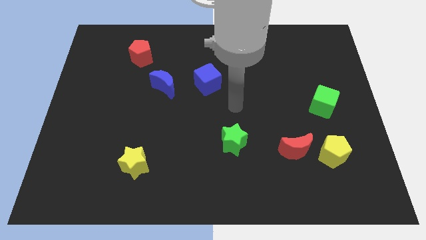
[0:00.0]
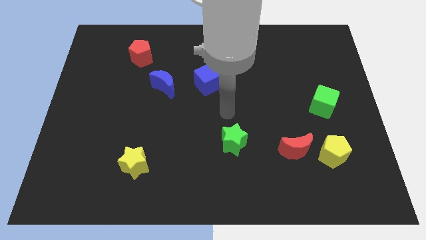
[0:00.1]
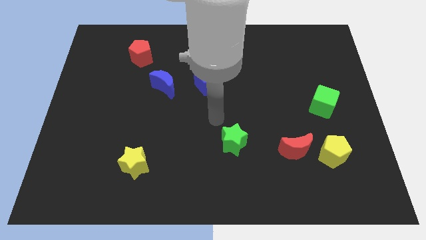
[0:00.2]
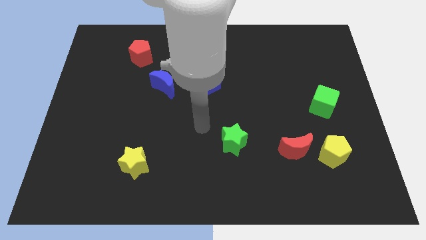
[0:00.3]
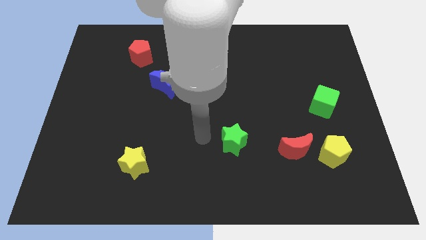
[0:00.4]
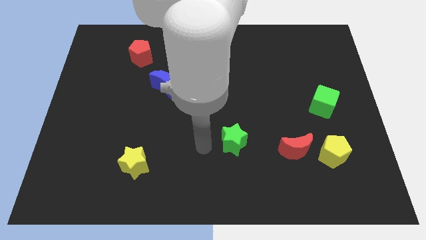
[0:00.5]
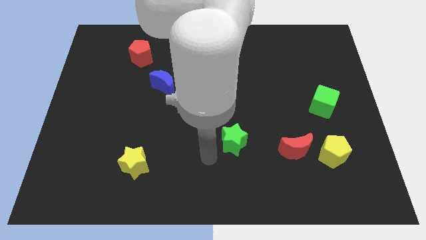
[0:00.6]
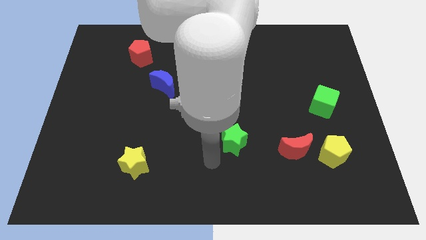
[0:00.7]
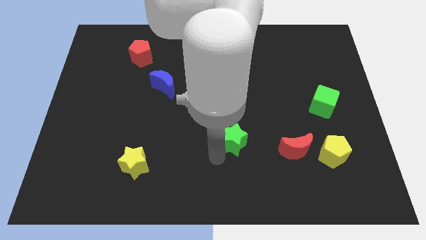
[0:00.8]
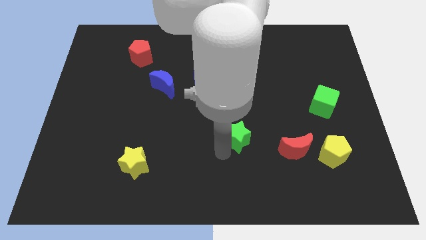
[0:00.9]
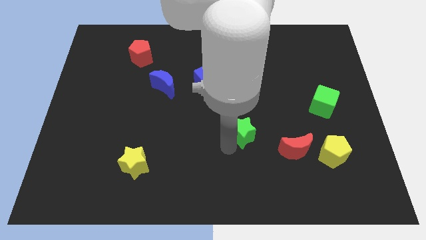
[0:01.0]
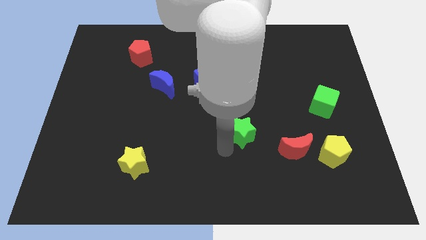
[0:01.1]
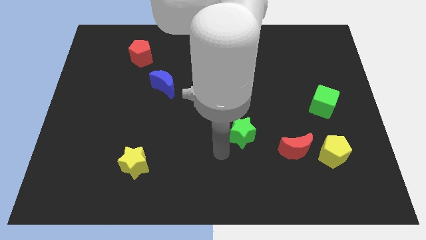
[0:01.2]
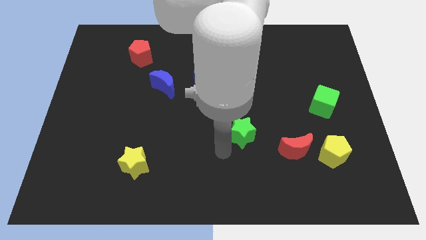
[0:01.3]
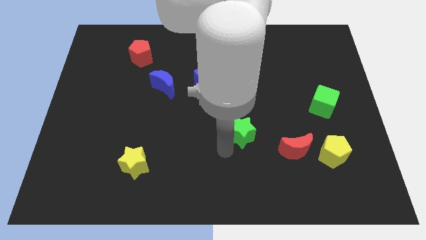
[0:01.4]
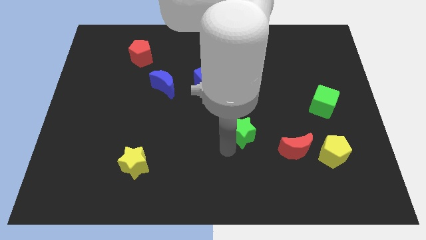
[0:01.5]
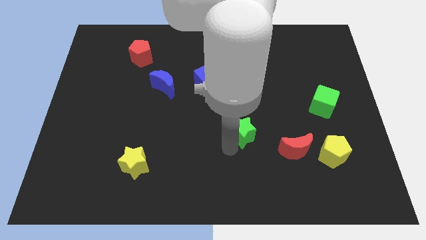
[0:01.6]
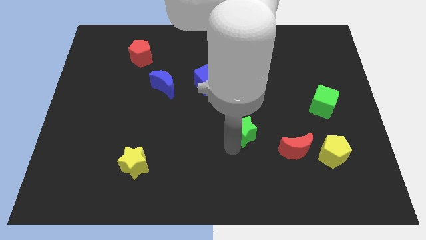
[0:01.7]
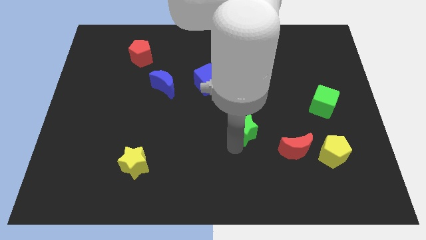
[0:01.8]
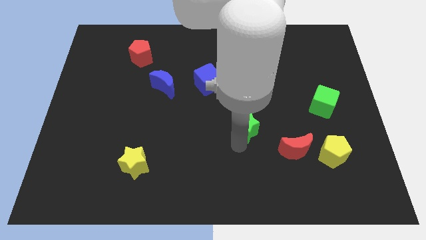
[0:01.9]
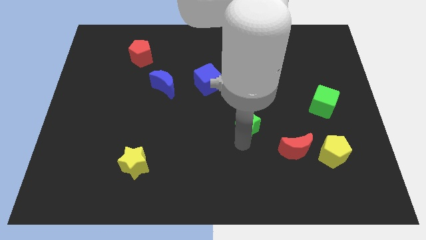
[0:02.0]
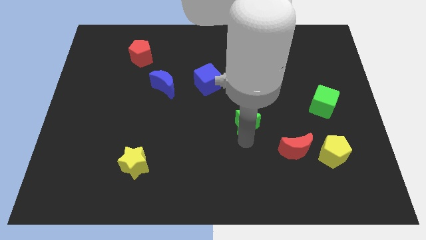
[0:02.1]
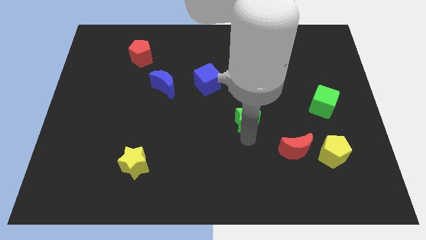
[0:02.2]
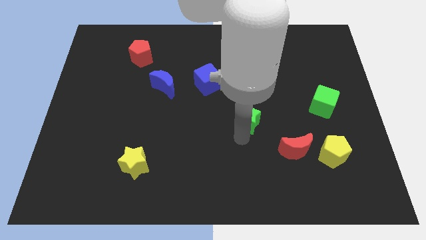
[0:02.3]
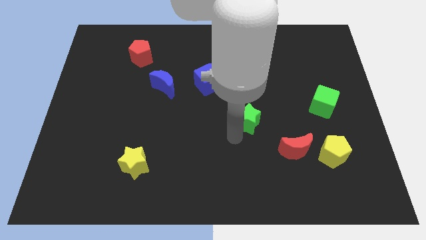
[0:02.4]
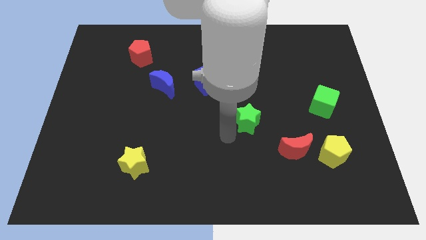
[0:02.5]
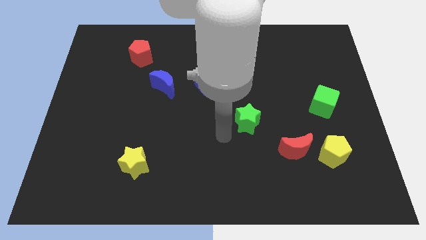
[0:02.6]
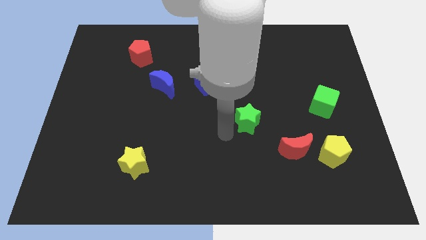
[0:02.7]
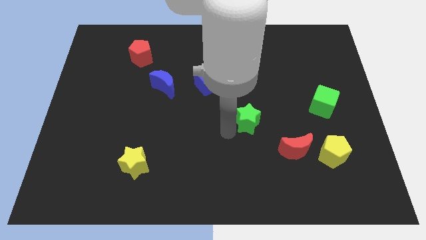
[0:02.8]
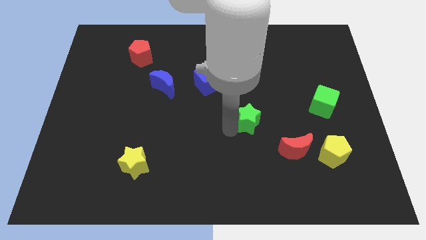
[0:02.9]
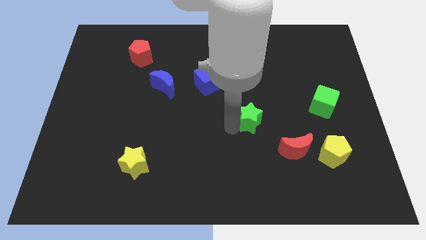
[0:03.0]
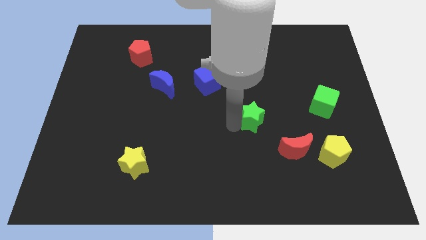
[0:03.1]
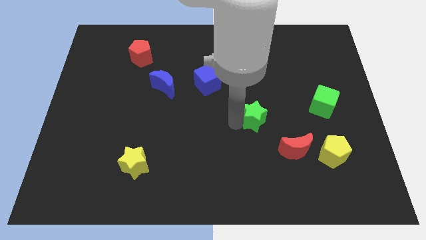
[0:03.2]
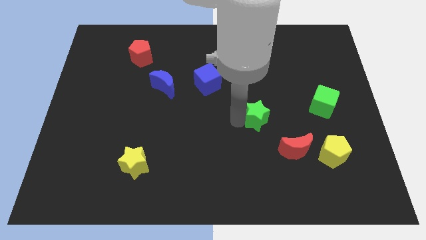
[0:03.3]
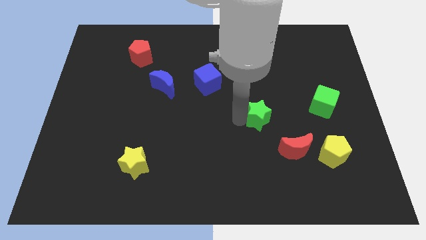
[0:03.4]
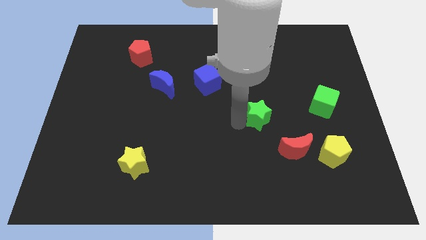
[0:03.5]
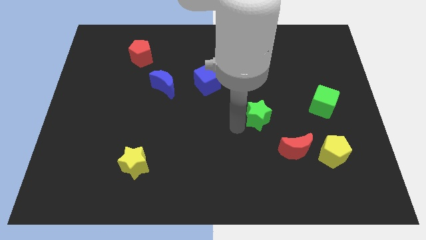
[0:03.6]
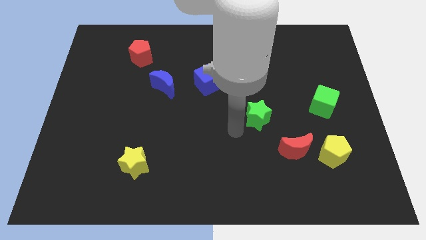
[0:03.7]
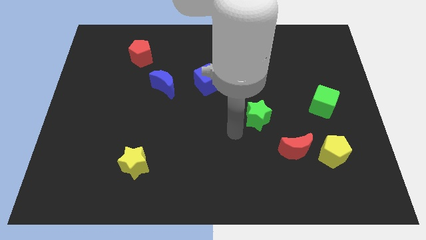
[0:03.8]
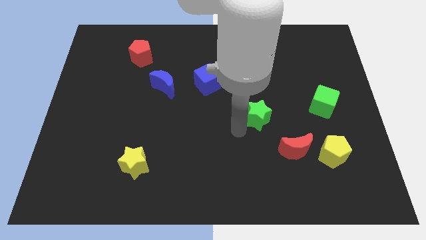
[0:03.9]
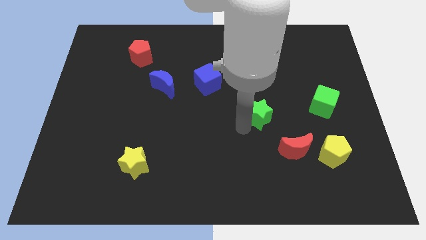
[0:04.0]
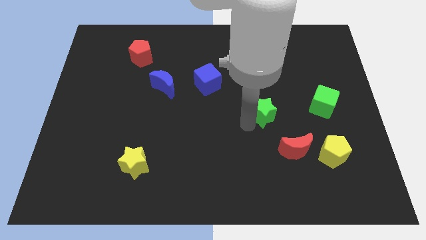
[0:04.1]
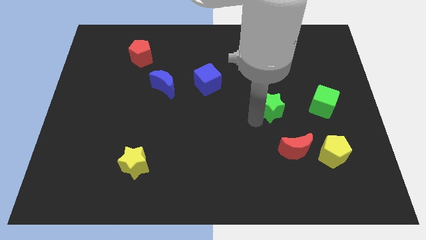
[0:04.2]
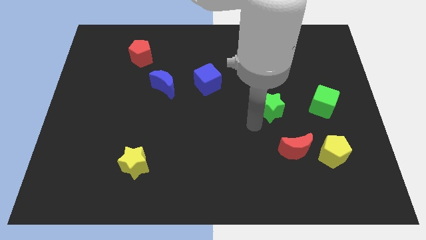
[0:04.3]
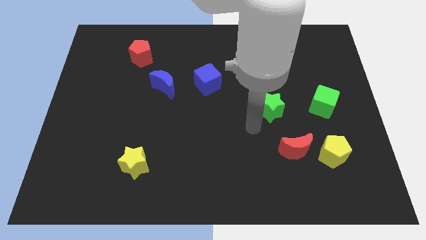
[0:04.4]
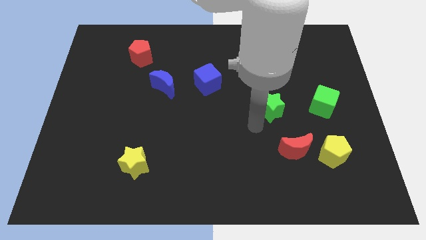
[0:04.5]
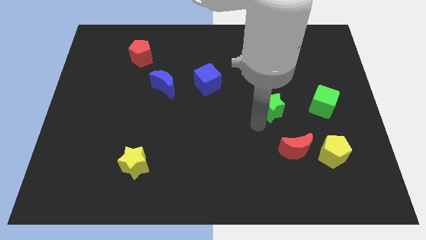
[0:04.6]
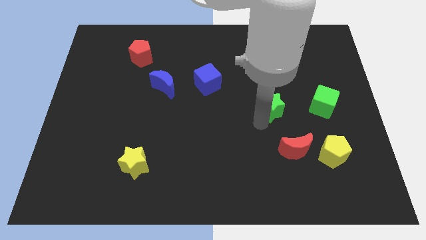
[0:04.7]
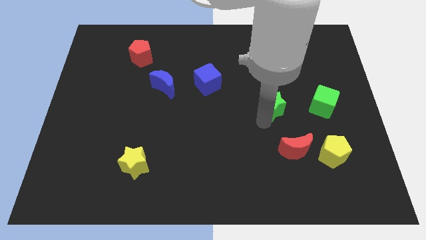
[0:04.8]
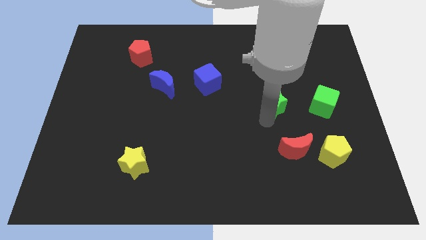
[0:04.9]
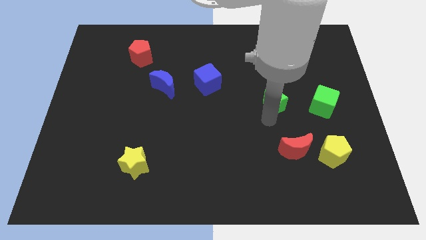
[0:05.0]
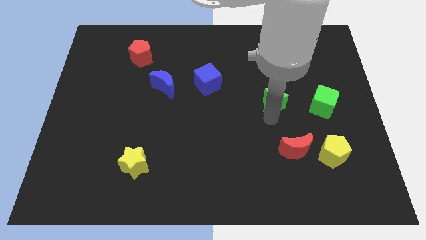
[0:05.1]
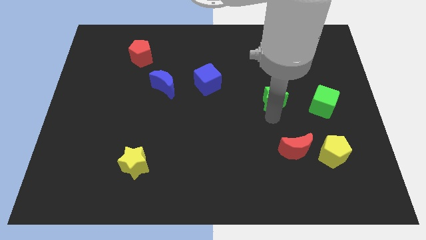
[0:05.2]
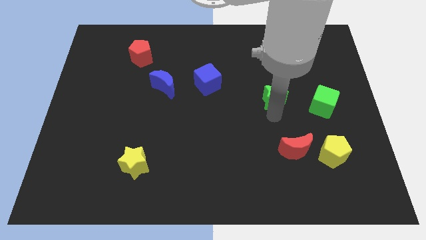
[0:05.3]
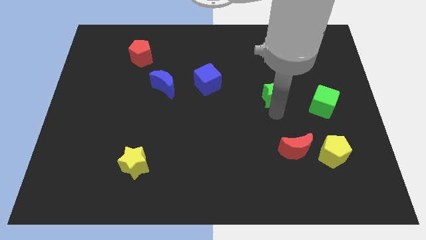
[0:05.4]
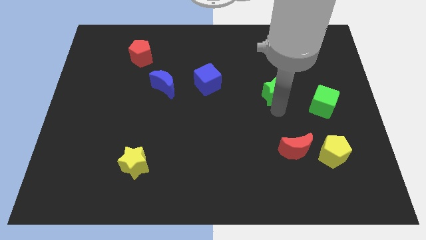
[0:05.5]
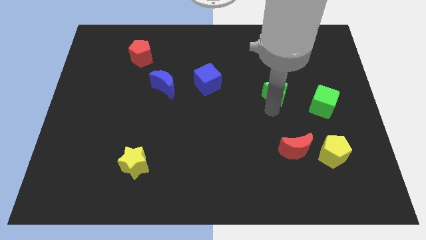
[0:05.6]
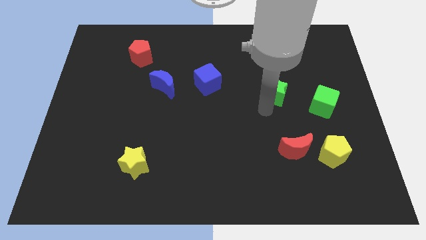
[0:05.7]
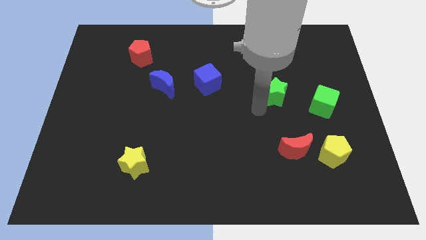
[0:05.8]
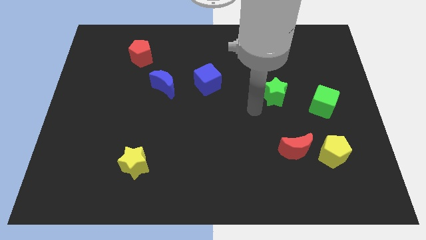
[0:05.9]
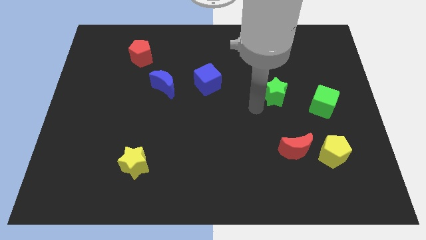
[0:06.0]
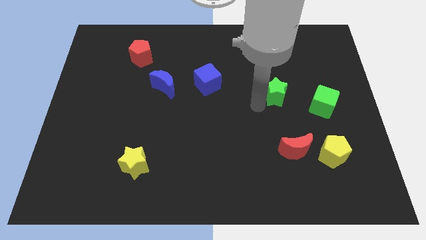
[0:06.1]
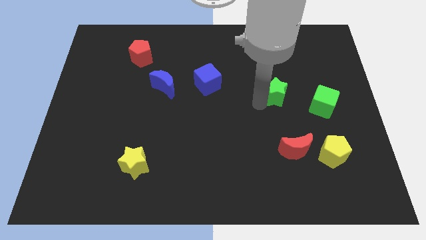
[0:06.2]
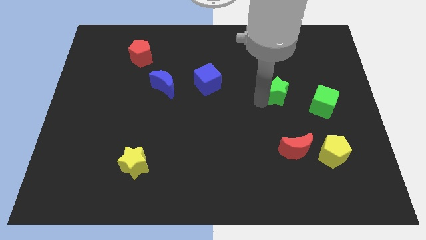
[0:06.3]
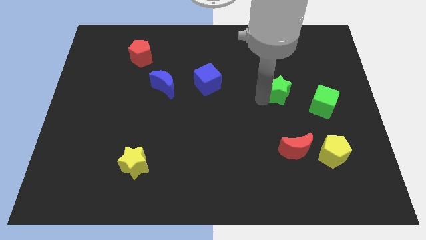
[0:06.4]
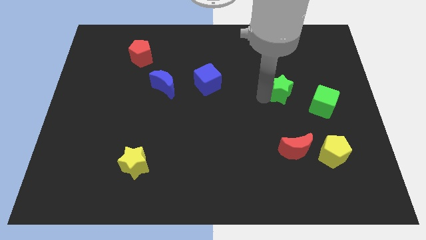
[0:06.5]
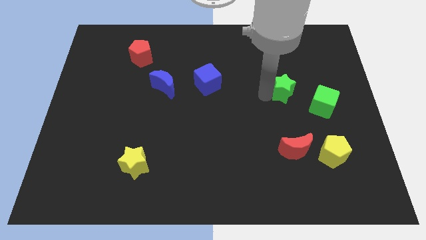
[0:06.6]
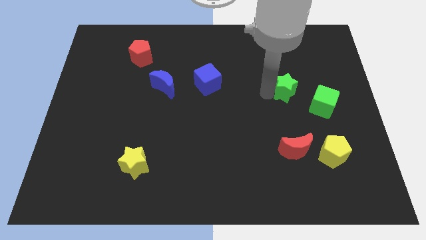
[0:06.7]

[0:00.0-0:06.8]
move the green star up and to the right

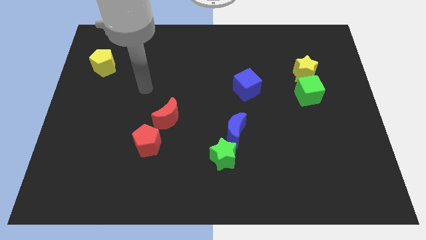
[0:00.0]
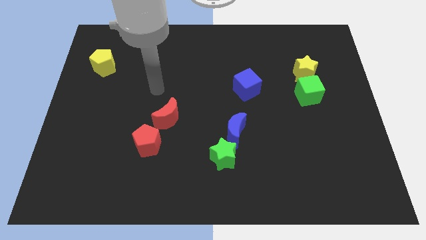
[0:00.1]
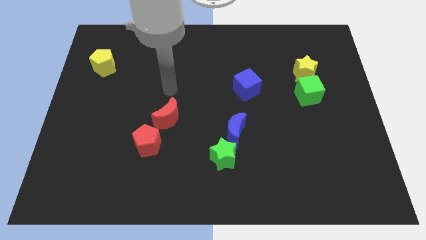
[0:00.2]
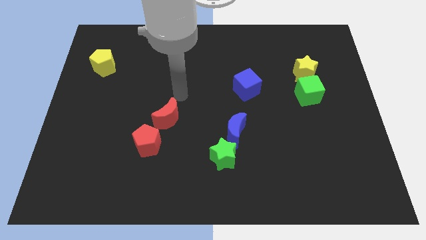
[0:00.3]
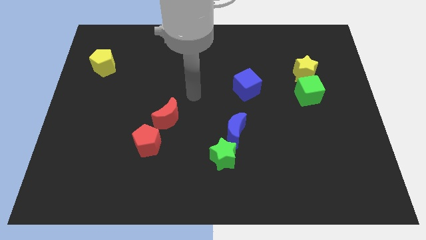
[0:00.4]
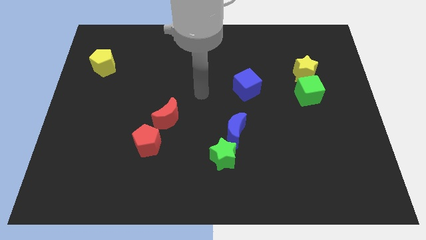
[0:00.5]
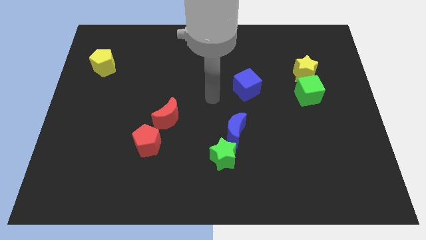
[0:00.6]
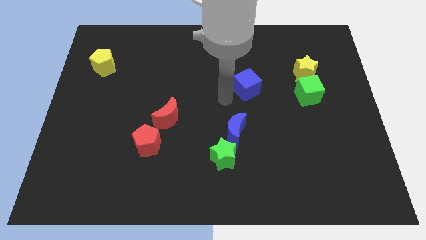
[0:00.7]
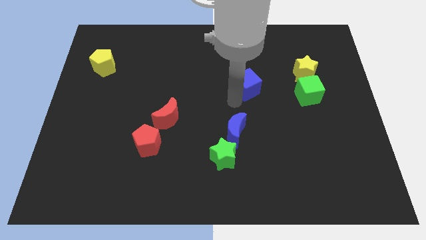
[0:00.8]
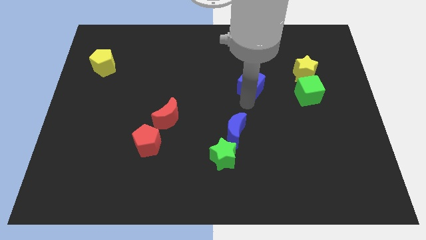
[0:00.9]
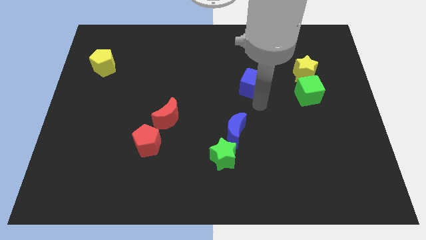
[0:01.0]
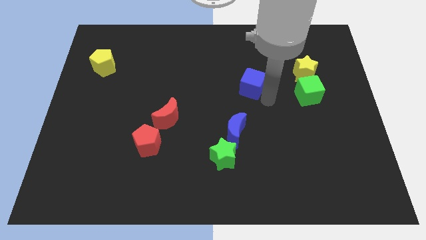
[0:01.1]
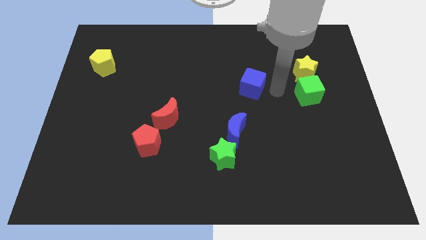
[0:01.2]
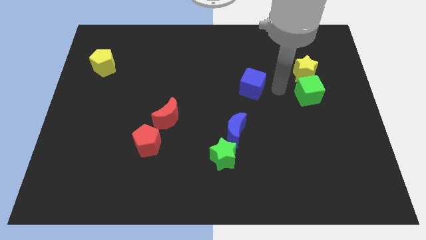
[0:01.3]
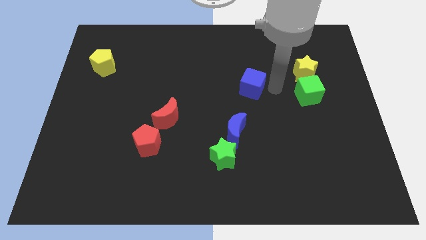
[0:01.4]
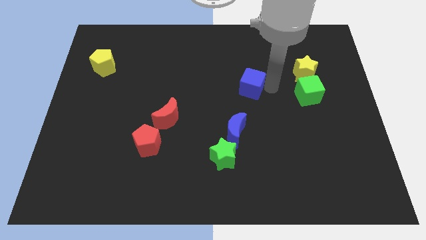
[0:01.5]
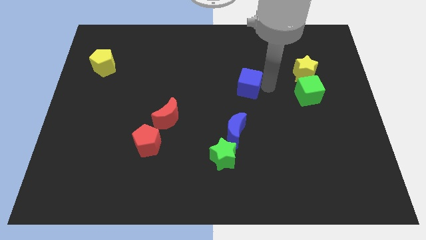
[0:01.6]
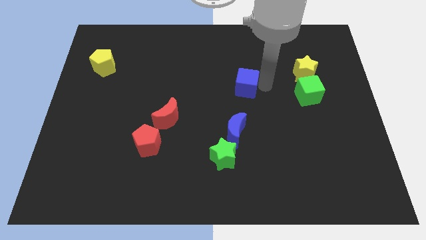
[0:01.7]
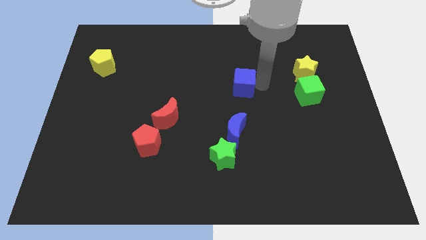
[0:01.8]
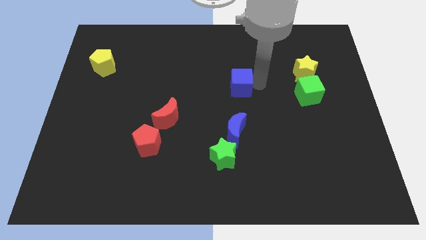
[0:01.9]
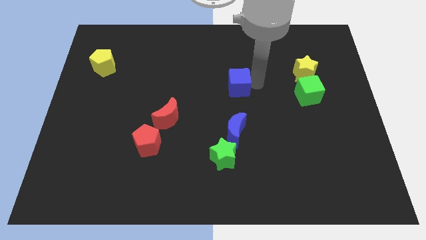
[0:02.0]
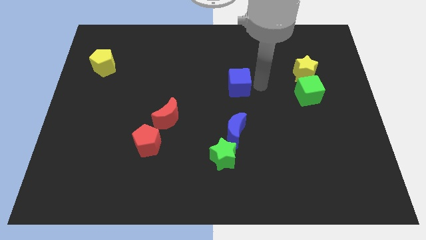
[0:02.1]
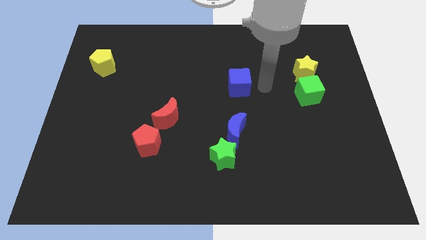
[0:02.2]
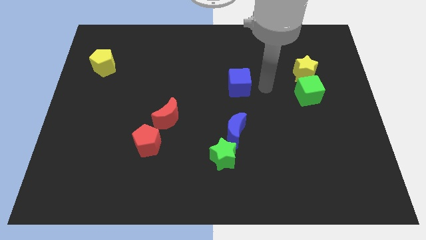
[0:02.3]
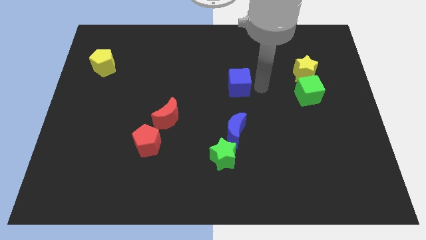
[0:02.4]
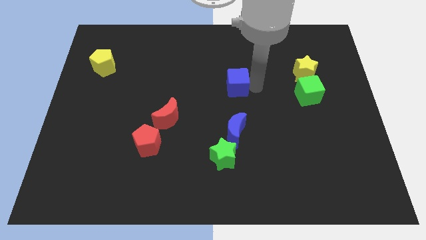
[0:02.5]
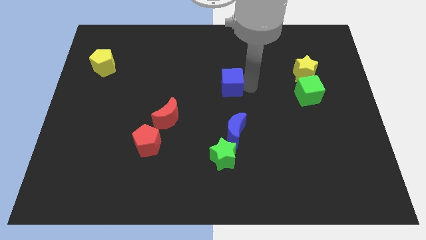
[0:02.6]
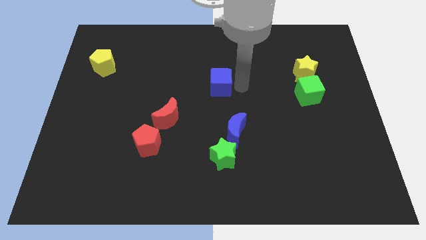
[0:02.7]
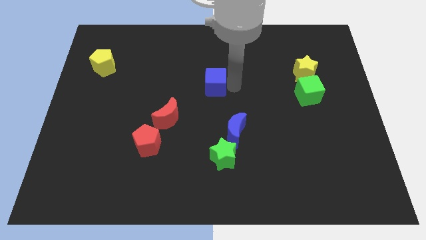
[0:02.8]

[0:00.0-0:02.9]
slightly slide the blue cube left
